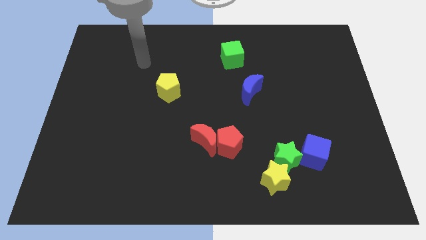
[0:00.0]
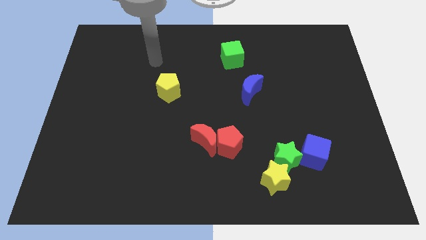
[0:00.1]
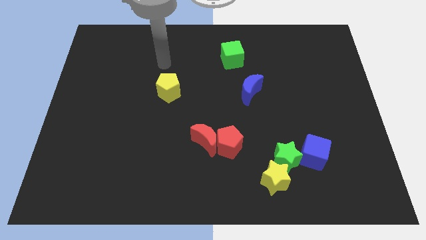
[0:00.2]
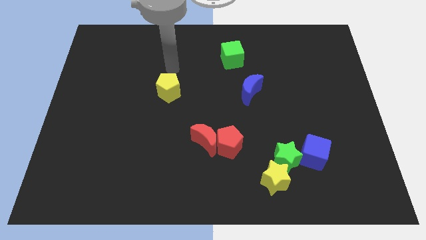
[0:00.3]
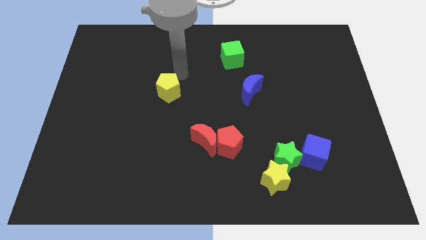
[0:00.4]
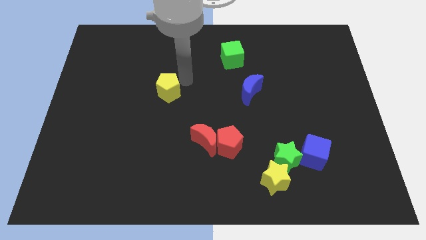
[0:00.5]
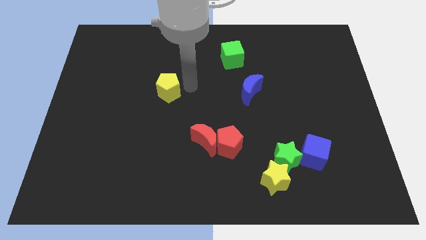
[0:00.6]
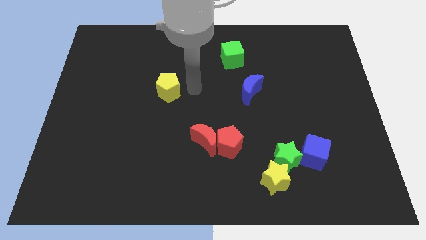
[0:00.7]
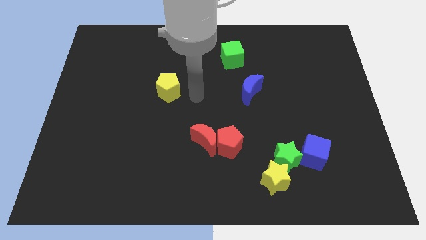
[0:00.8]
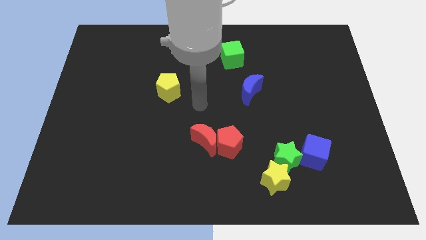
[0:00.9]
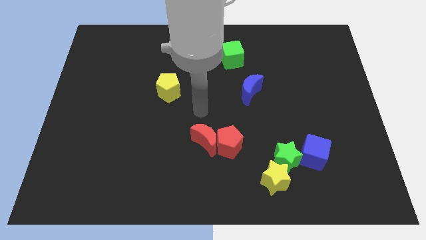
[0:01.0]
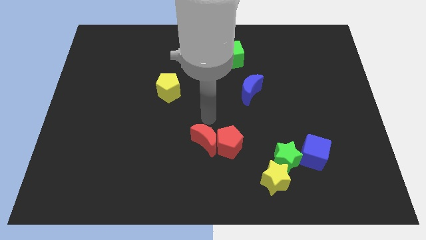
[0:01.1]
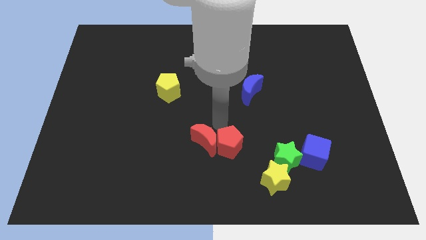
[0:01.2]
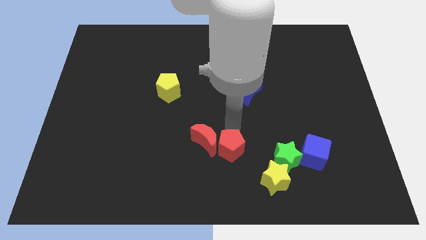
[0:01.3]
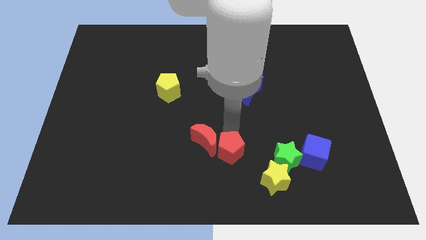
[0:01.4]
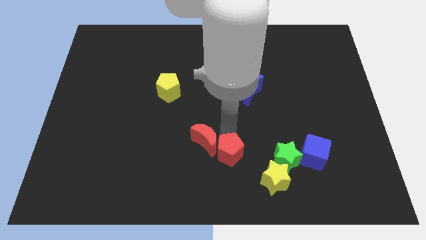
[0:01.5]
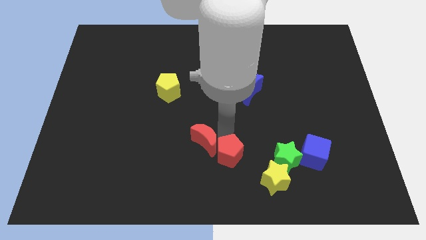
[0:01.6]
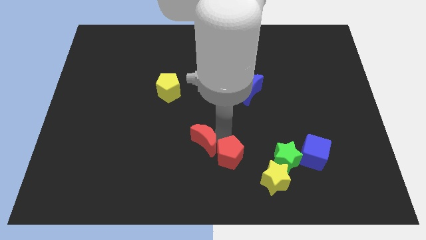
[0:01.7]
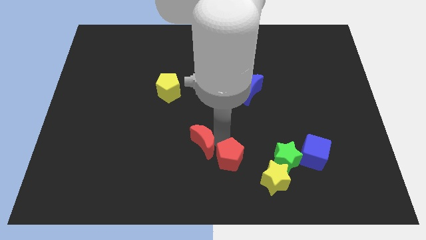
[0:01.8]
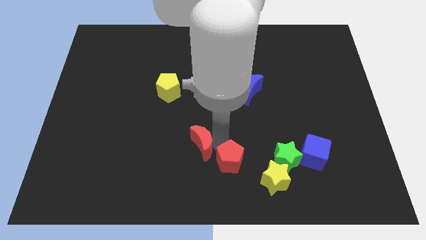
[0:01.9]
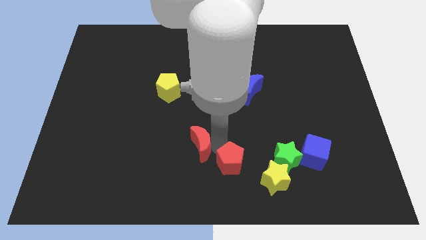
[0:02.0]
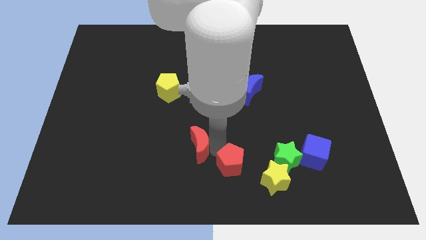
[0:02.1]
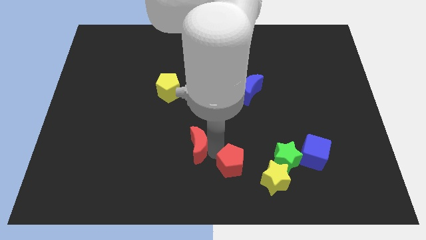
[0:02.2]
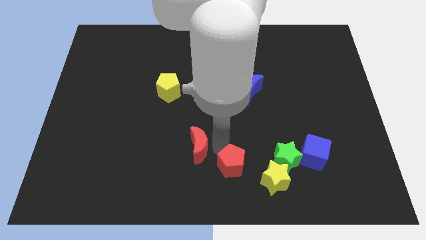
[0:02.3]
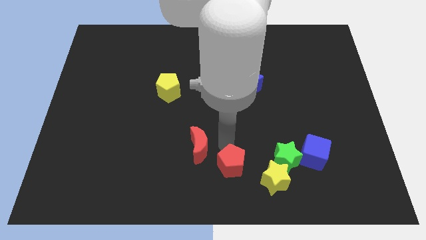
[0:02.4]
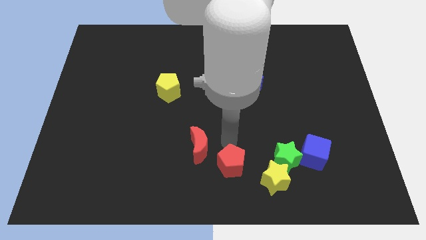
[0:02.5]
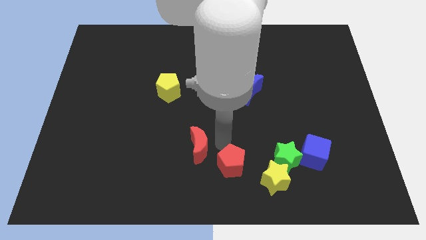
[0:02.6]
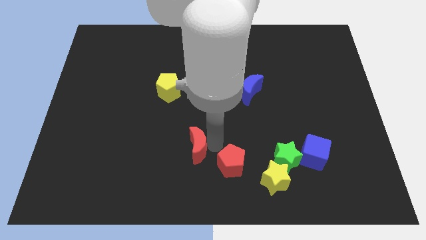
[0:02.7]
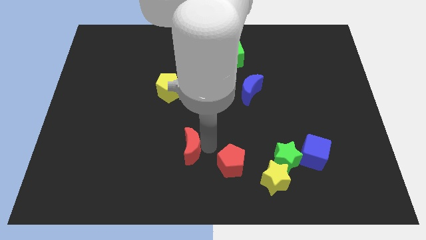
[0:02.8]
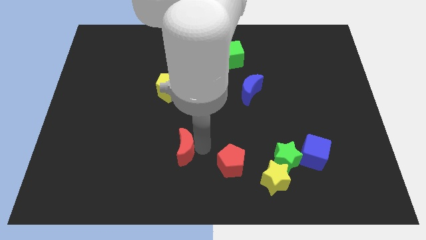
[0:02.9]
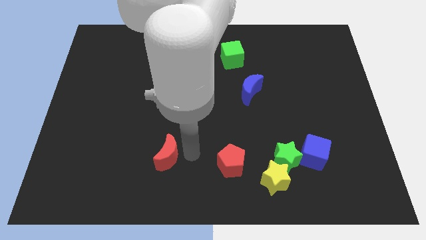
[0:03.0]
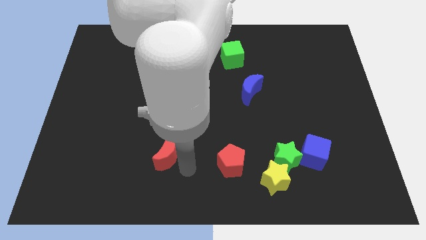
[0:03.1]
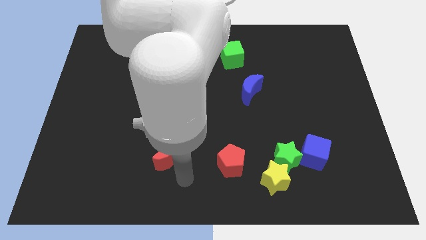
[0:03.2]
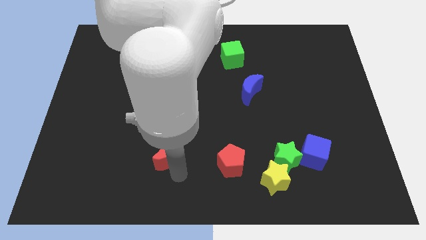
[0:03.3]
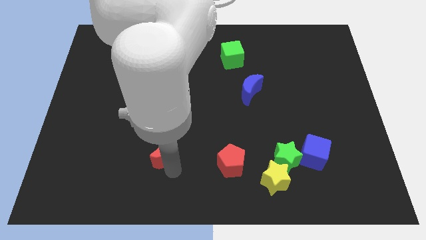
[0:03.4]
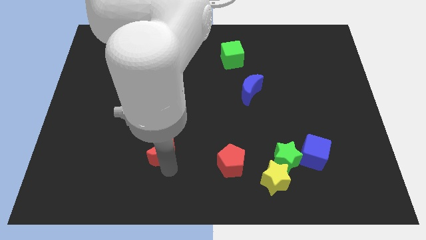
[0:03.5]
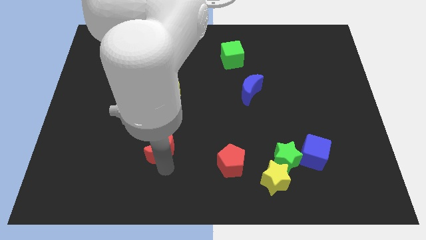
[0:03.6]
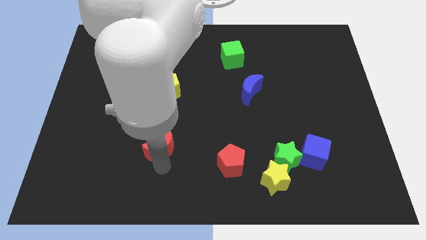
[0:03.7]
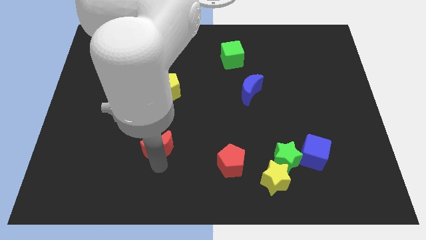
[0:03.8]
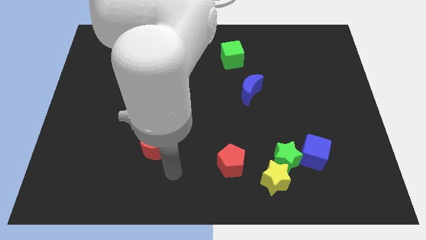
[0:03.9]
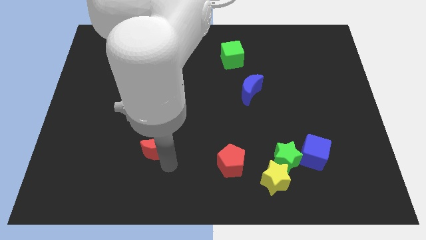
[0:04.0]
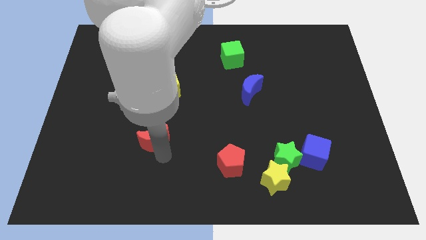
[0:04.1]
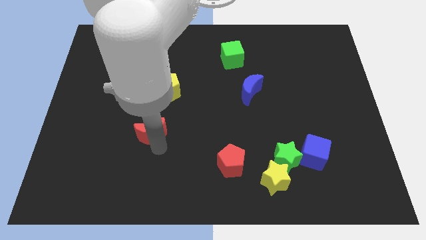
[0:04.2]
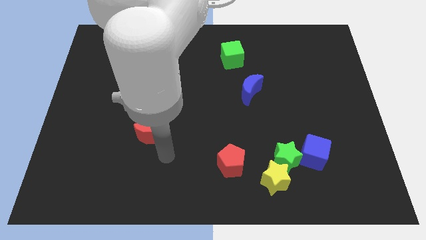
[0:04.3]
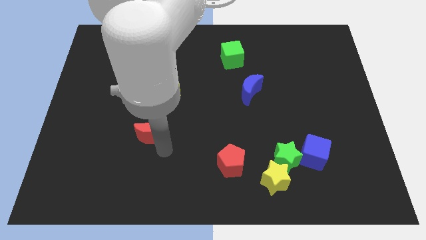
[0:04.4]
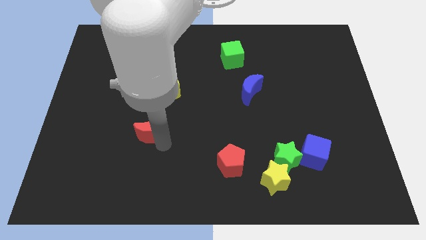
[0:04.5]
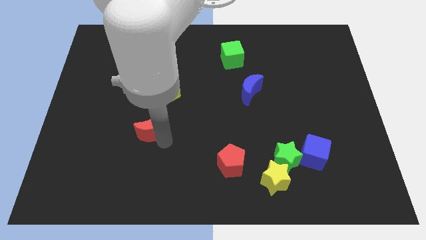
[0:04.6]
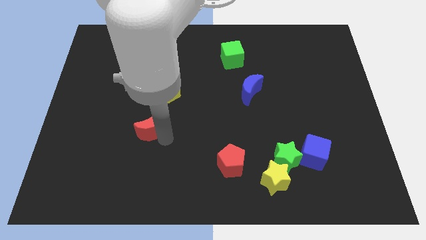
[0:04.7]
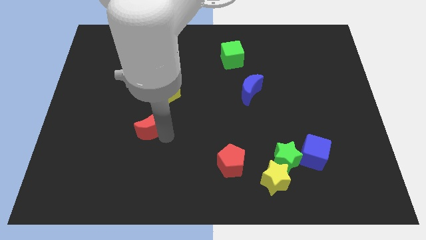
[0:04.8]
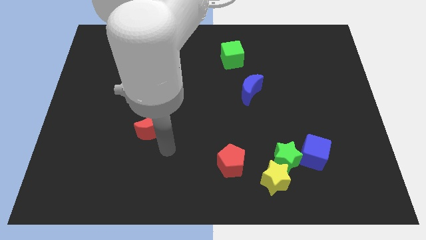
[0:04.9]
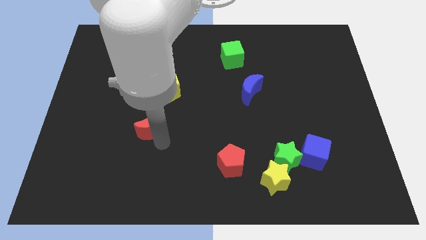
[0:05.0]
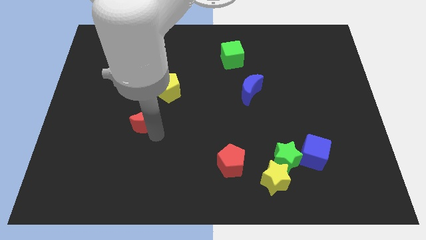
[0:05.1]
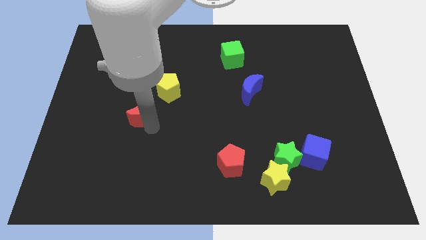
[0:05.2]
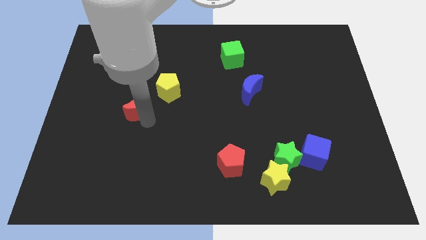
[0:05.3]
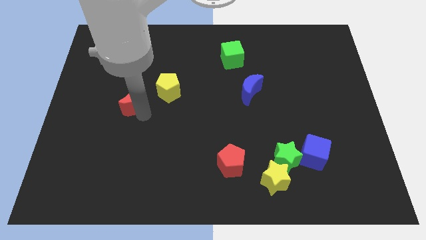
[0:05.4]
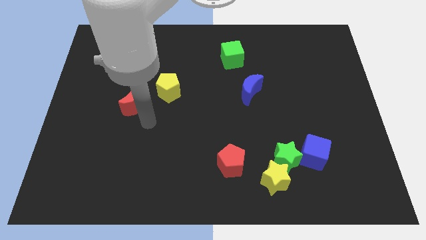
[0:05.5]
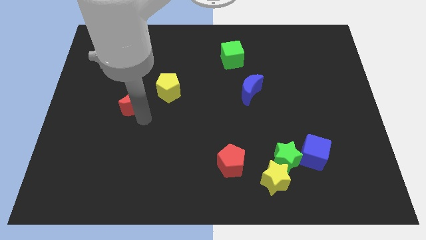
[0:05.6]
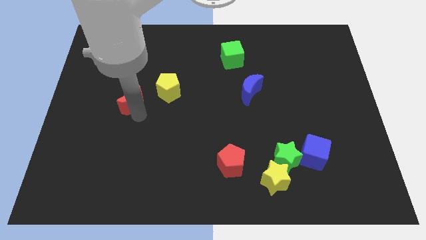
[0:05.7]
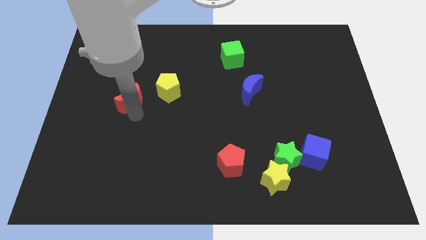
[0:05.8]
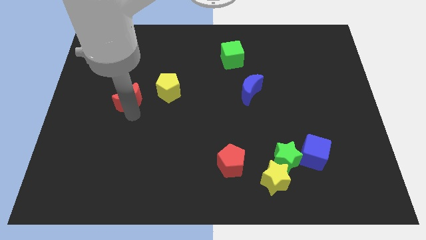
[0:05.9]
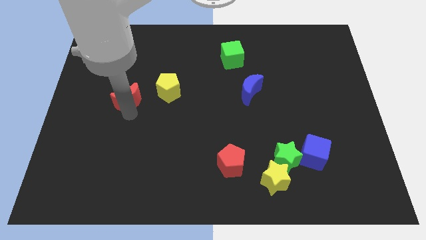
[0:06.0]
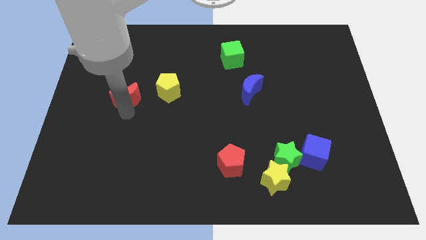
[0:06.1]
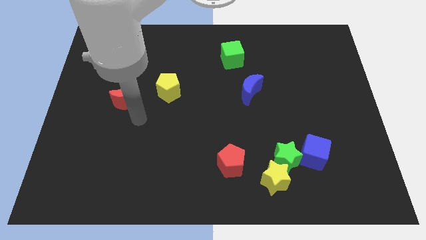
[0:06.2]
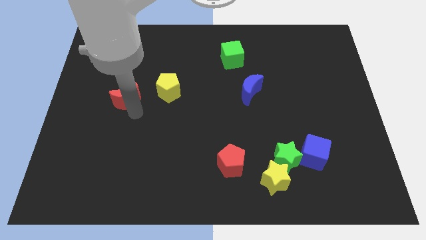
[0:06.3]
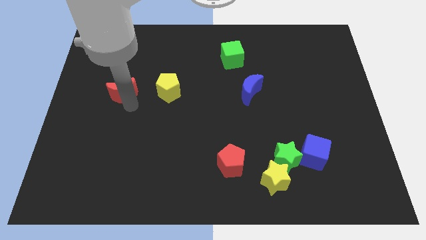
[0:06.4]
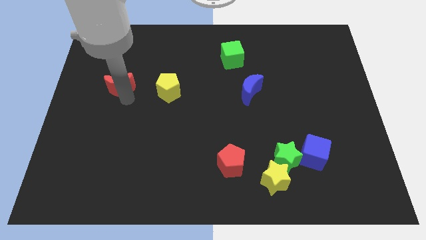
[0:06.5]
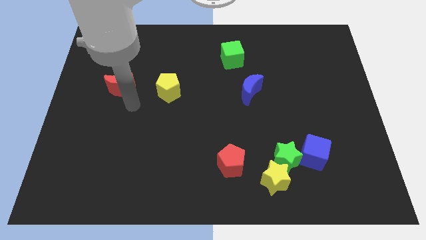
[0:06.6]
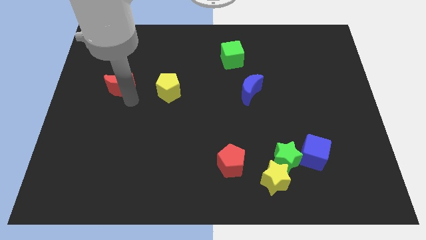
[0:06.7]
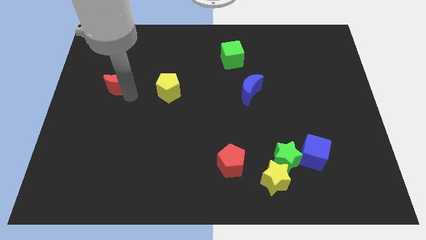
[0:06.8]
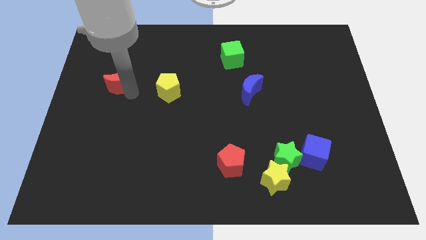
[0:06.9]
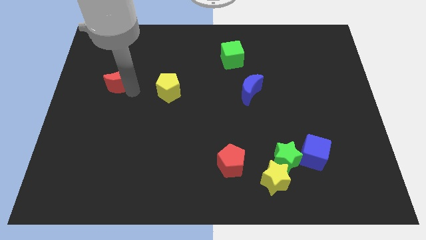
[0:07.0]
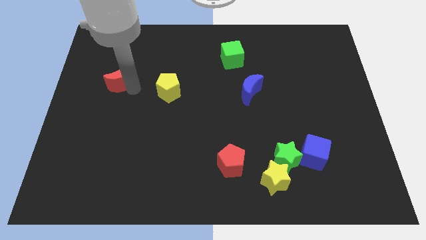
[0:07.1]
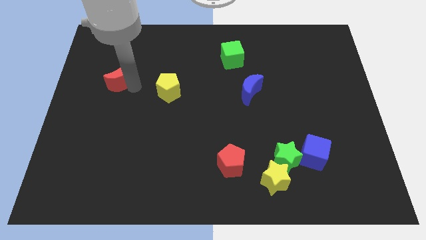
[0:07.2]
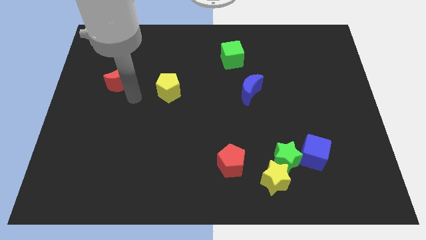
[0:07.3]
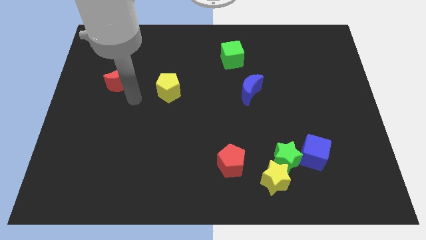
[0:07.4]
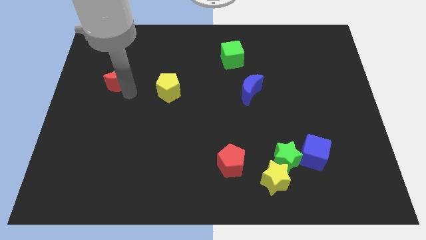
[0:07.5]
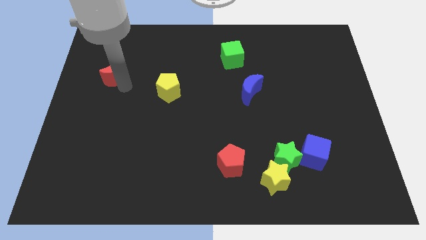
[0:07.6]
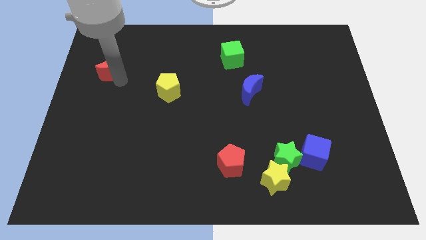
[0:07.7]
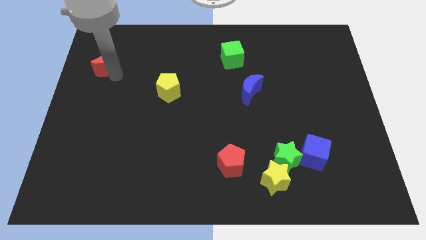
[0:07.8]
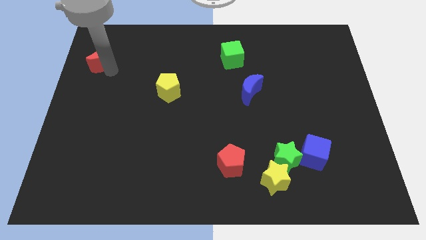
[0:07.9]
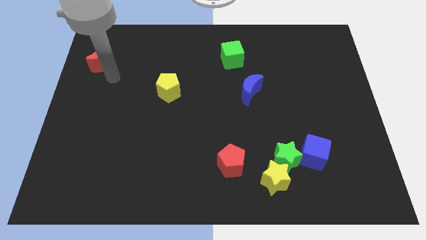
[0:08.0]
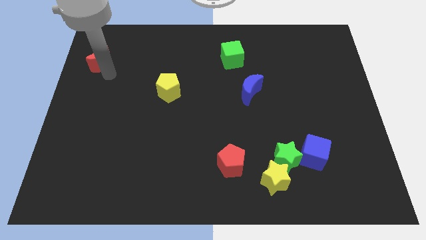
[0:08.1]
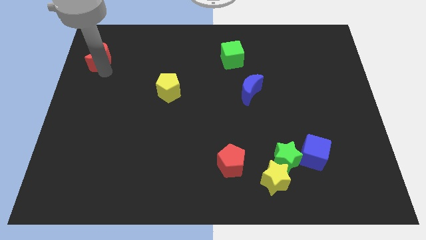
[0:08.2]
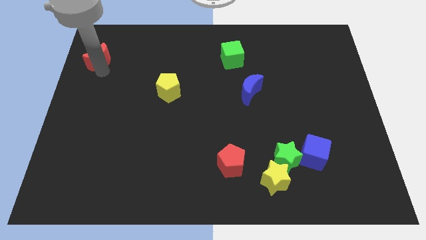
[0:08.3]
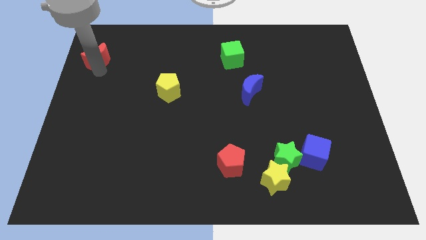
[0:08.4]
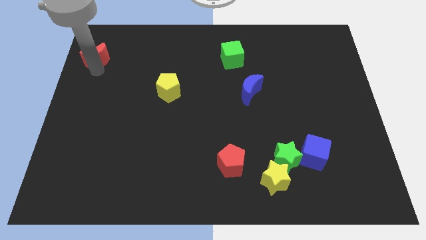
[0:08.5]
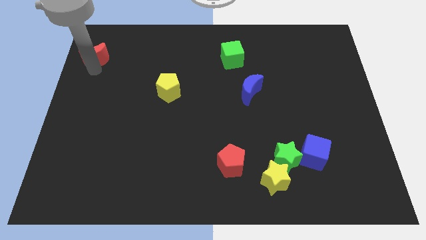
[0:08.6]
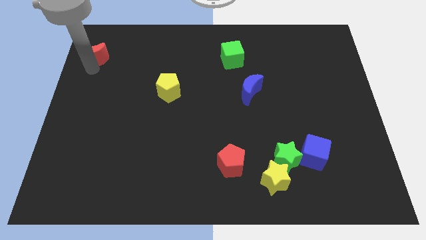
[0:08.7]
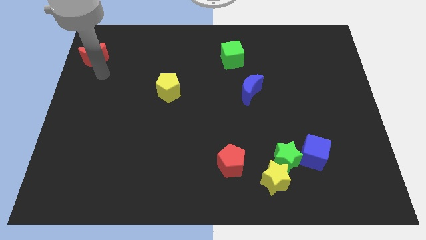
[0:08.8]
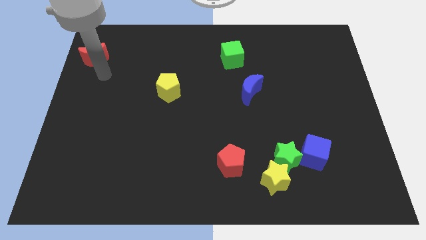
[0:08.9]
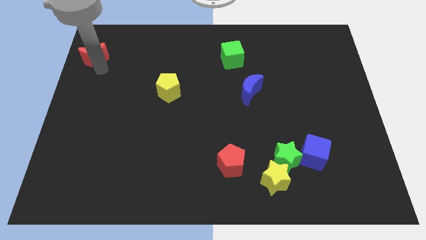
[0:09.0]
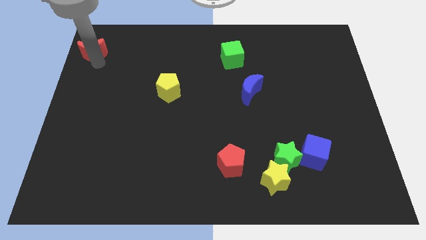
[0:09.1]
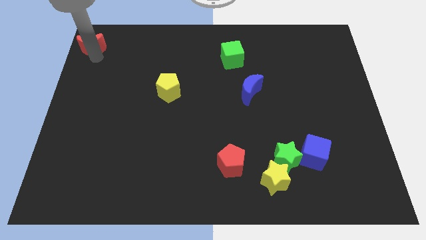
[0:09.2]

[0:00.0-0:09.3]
put the red moon to the top left corner
